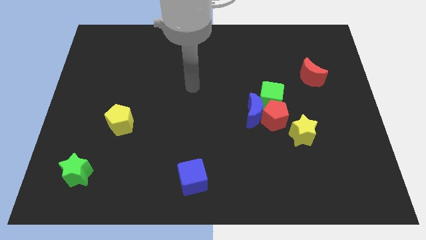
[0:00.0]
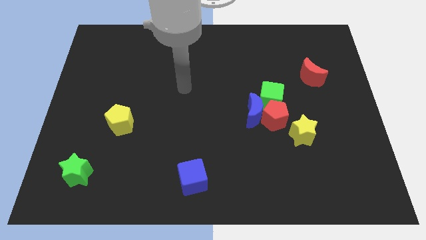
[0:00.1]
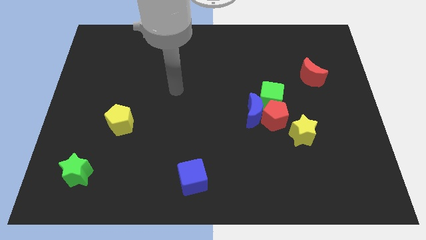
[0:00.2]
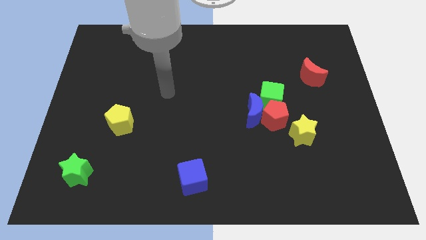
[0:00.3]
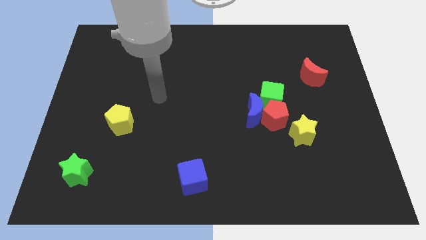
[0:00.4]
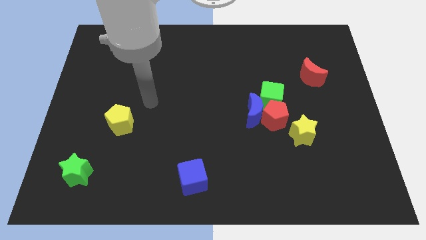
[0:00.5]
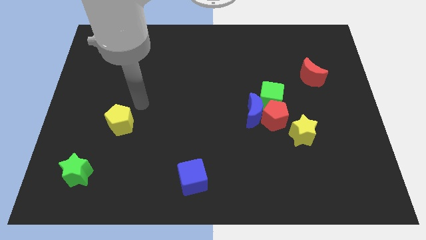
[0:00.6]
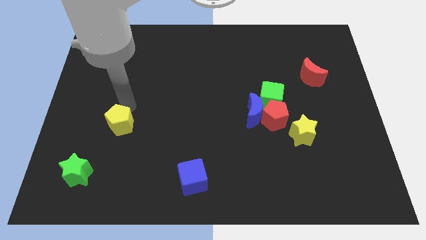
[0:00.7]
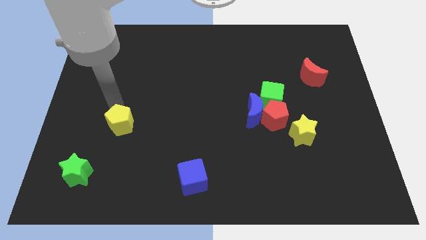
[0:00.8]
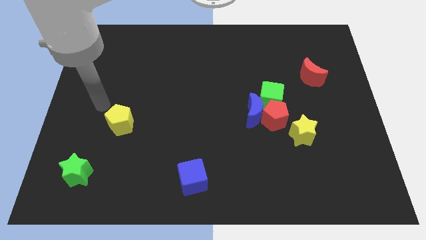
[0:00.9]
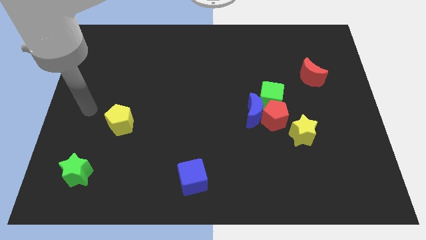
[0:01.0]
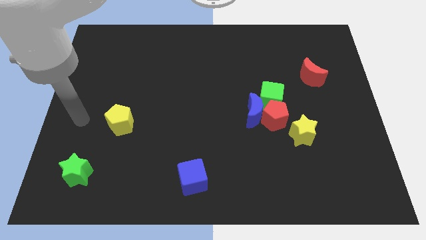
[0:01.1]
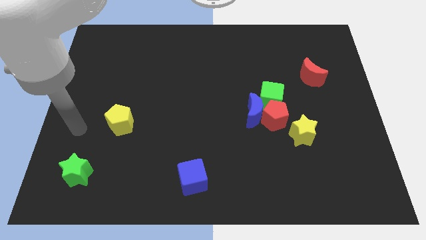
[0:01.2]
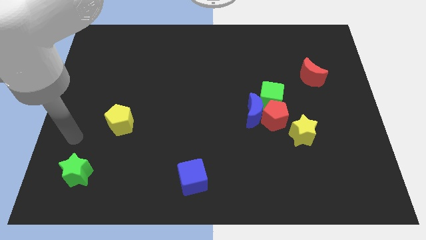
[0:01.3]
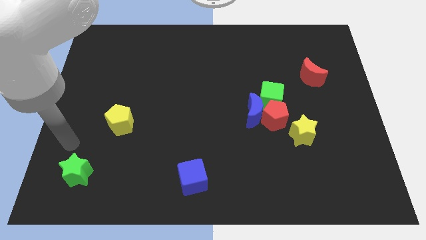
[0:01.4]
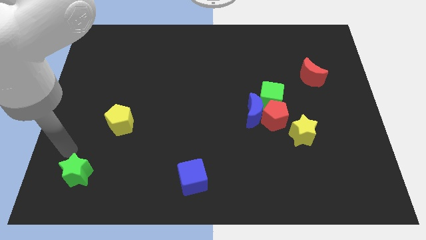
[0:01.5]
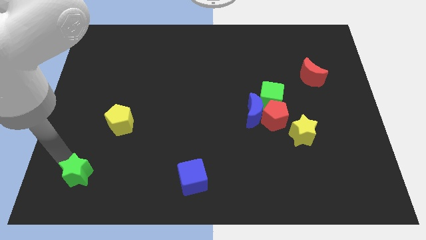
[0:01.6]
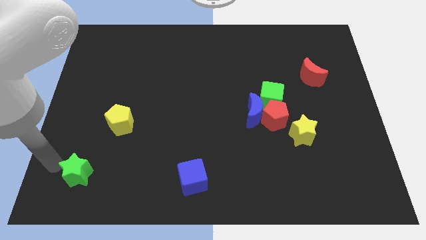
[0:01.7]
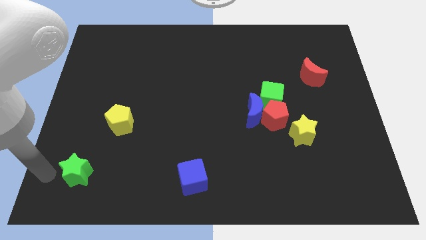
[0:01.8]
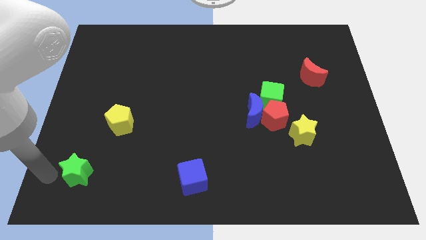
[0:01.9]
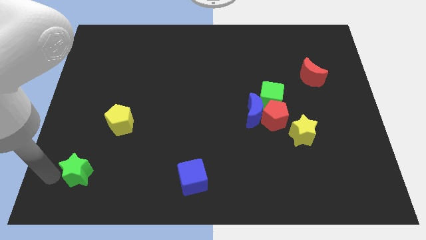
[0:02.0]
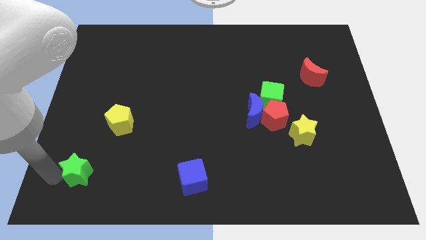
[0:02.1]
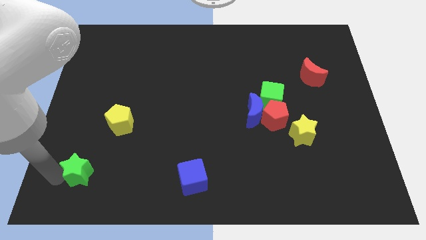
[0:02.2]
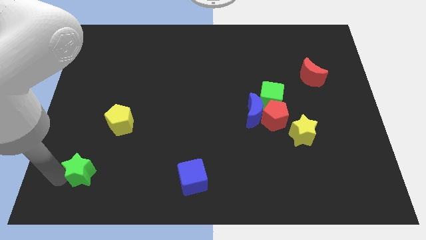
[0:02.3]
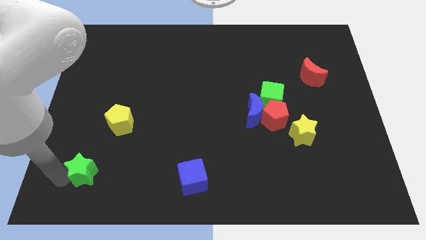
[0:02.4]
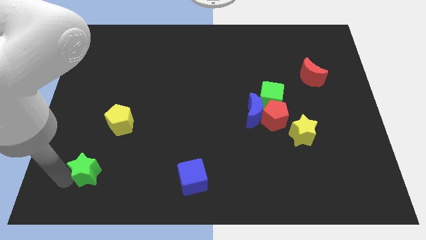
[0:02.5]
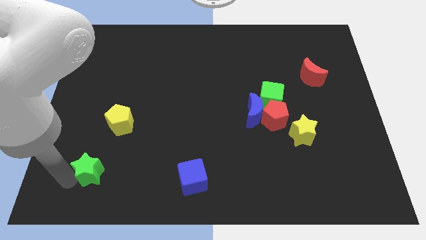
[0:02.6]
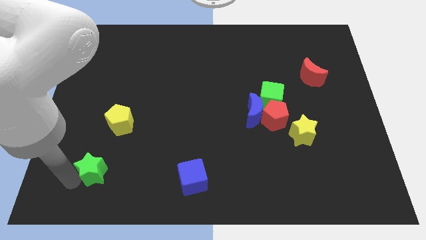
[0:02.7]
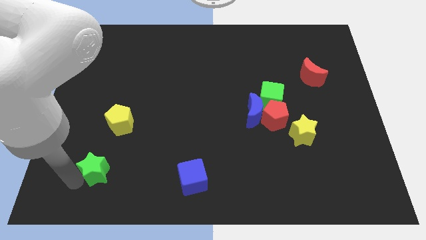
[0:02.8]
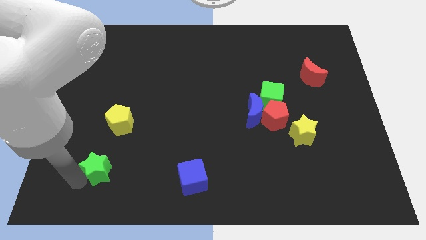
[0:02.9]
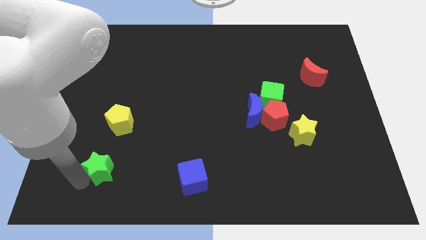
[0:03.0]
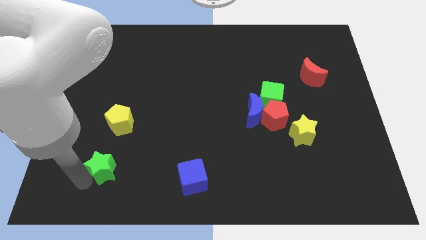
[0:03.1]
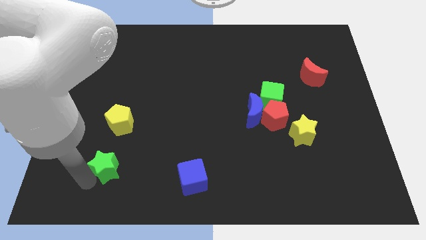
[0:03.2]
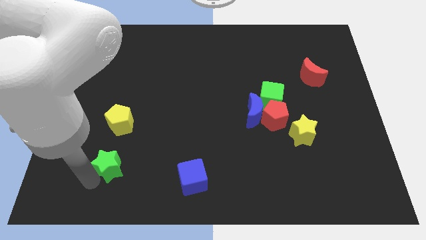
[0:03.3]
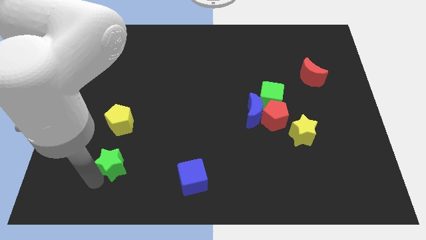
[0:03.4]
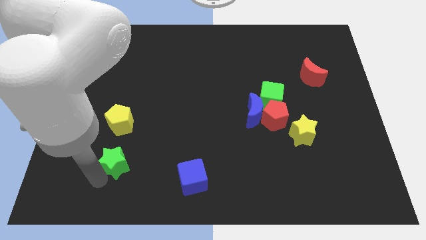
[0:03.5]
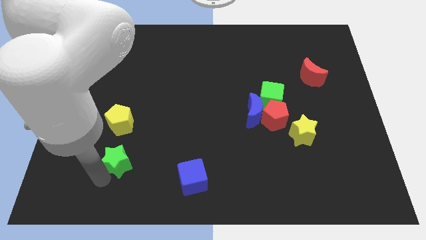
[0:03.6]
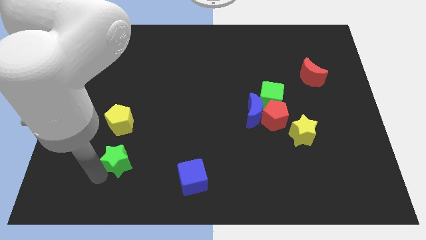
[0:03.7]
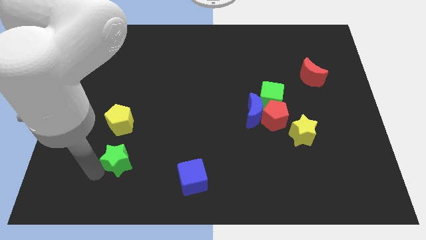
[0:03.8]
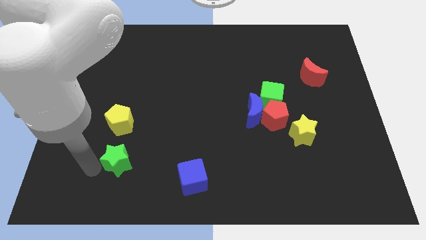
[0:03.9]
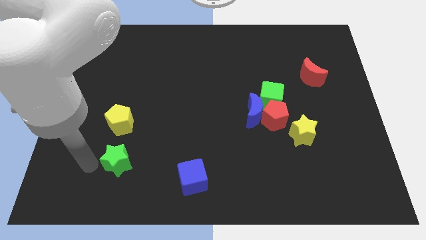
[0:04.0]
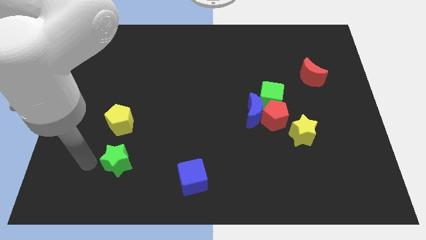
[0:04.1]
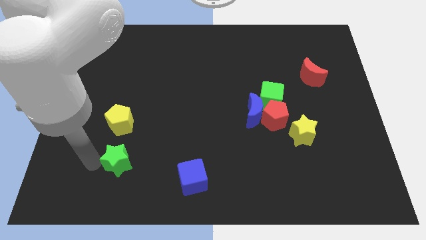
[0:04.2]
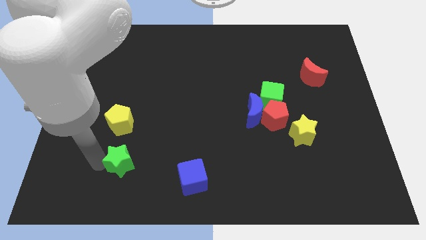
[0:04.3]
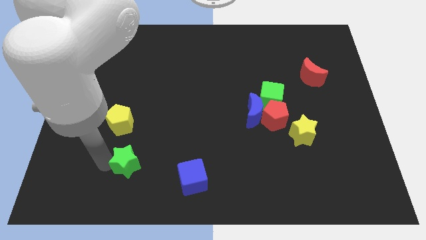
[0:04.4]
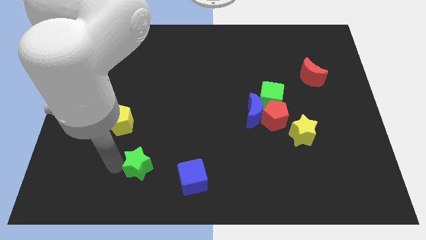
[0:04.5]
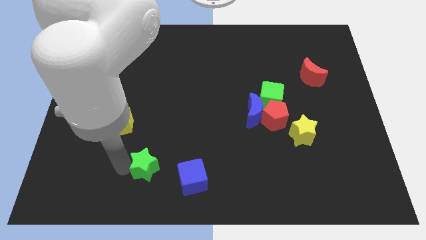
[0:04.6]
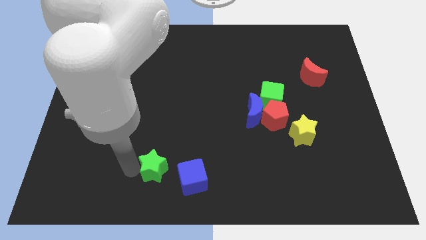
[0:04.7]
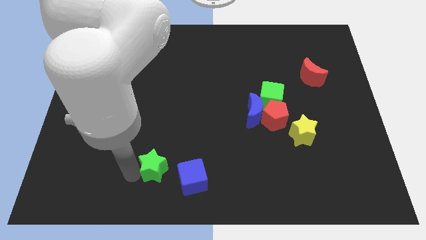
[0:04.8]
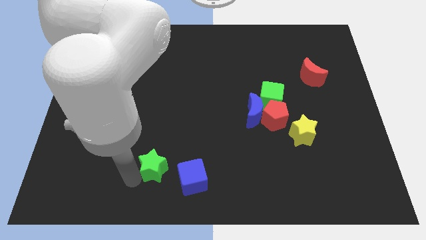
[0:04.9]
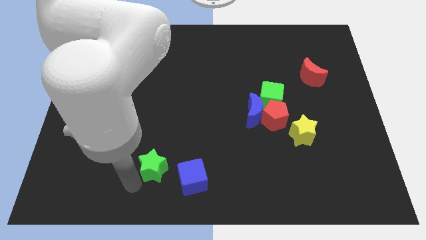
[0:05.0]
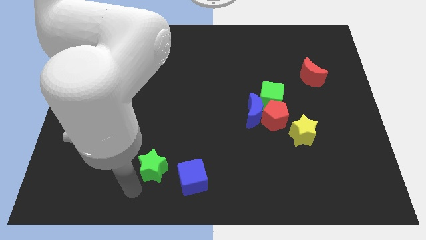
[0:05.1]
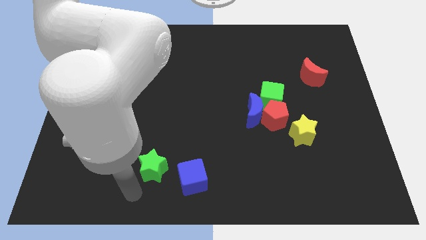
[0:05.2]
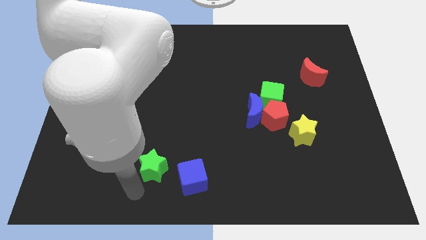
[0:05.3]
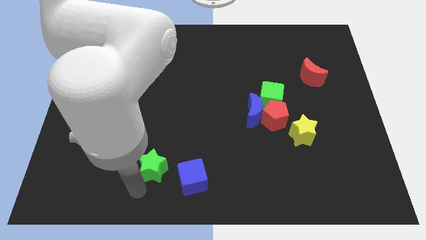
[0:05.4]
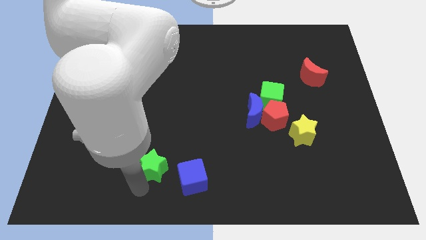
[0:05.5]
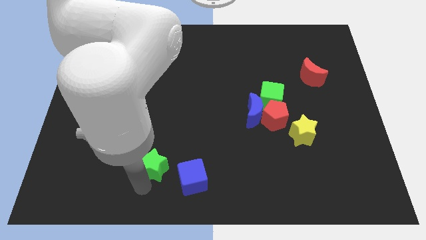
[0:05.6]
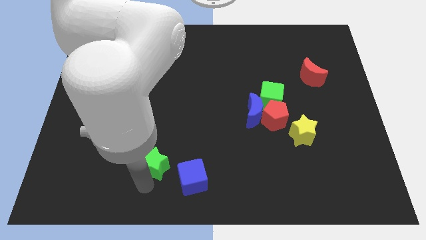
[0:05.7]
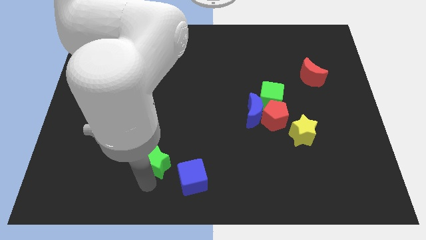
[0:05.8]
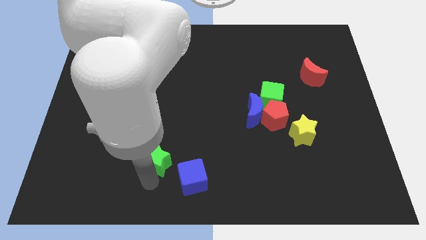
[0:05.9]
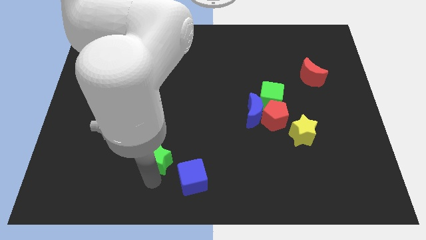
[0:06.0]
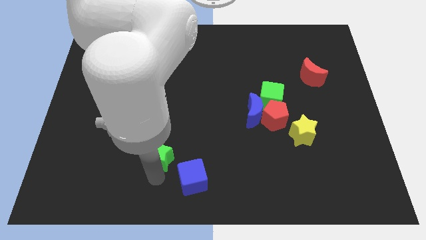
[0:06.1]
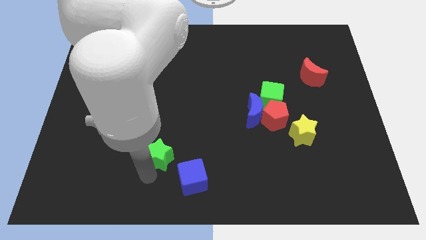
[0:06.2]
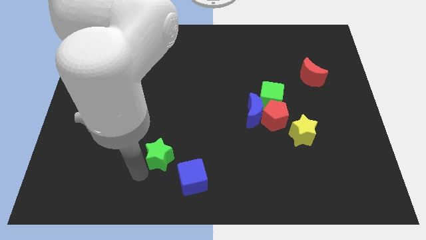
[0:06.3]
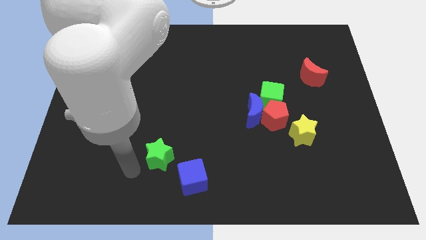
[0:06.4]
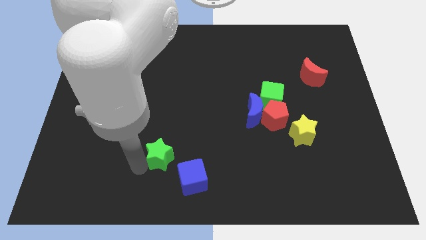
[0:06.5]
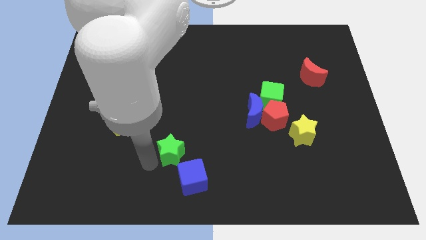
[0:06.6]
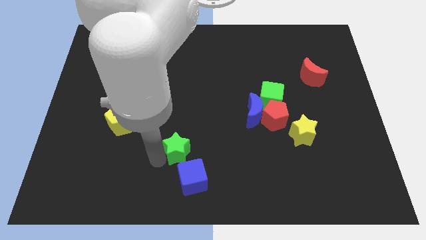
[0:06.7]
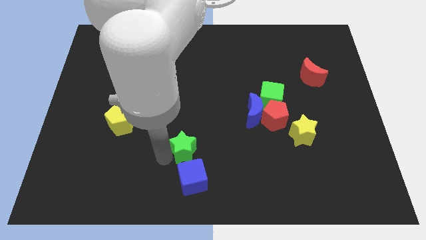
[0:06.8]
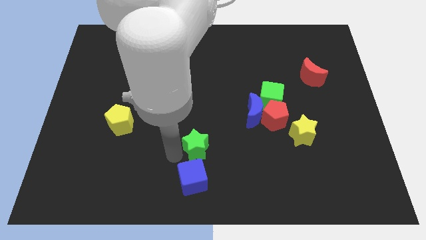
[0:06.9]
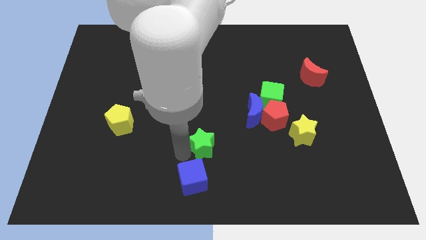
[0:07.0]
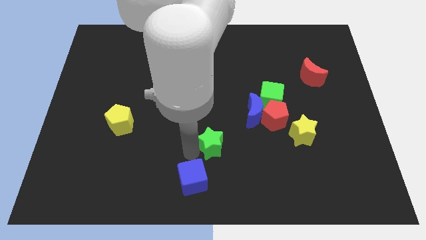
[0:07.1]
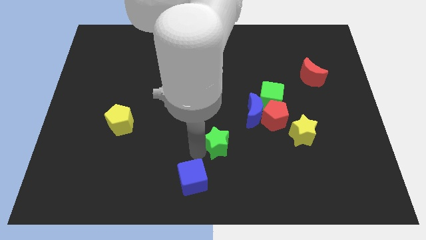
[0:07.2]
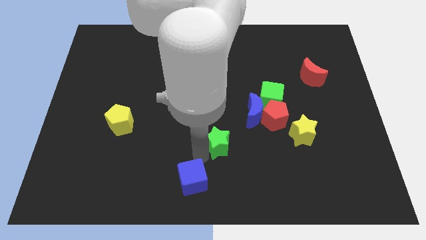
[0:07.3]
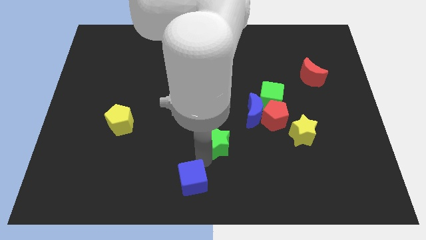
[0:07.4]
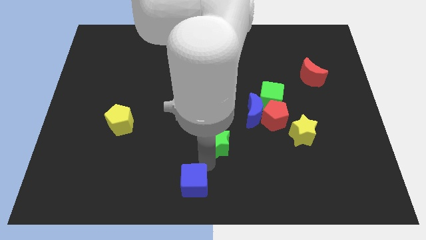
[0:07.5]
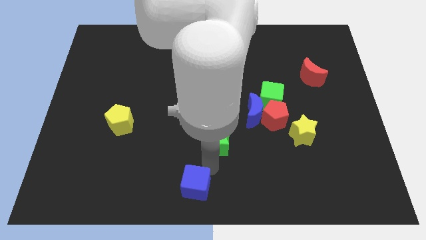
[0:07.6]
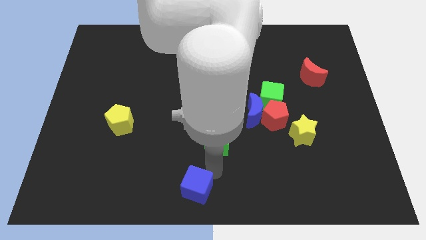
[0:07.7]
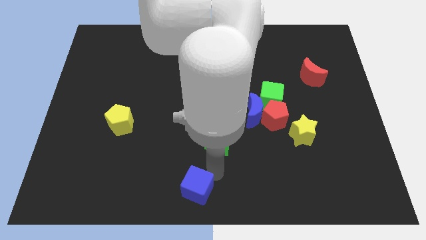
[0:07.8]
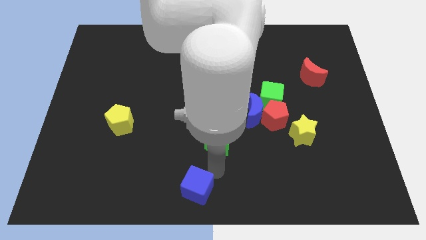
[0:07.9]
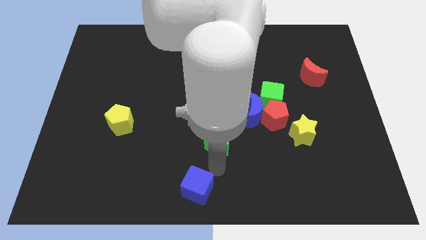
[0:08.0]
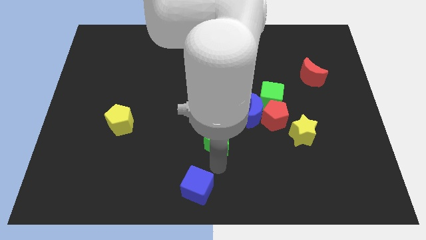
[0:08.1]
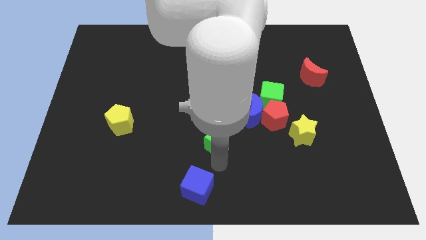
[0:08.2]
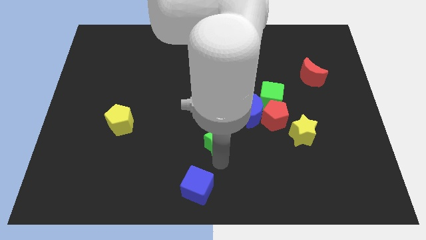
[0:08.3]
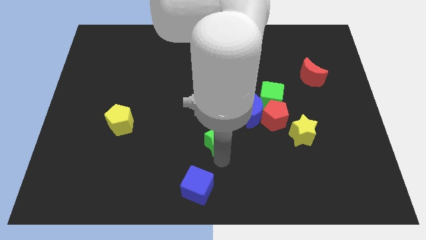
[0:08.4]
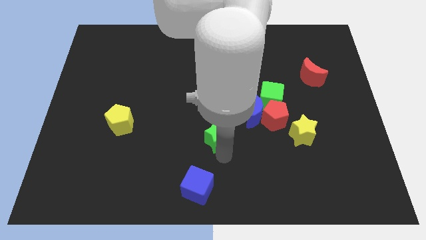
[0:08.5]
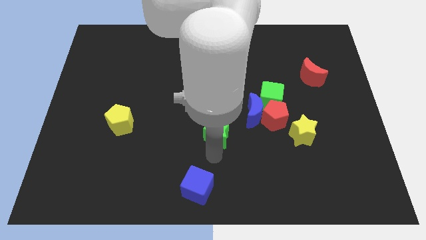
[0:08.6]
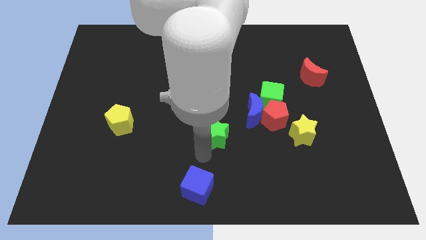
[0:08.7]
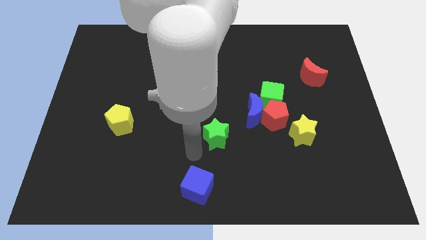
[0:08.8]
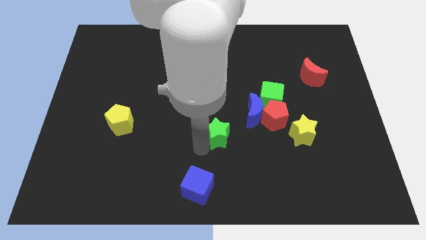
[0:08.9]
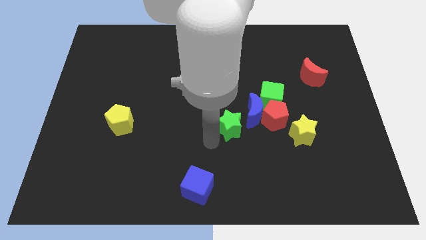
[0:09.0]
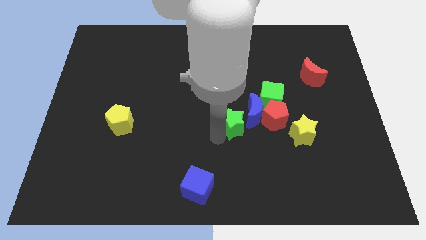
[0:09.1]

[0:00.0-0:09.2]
slide the green star towards the blue moon
